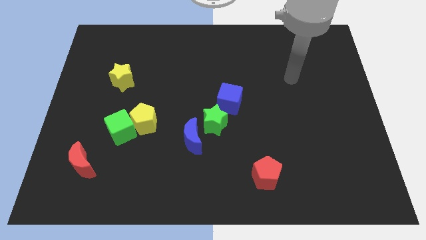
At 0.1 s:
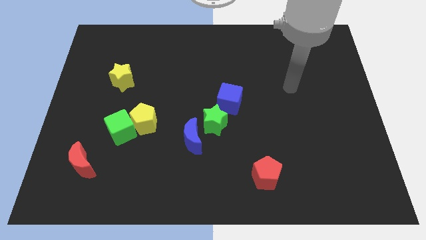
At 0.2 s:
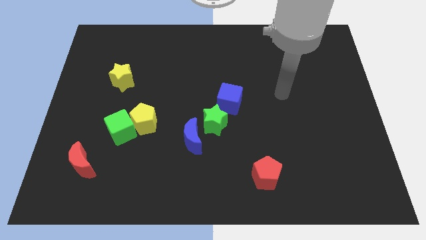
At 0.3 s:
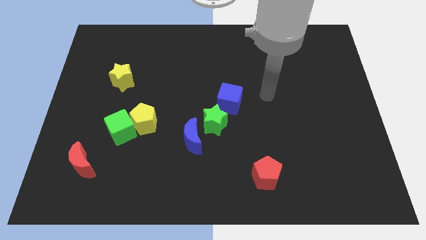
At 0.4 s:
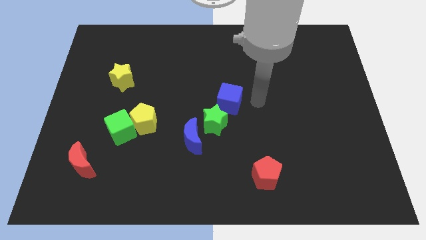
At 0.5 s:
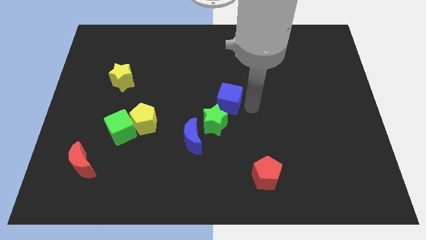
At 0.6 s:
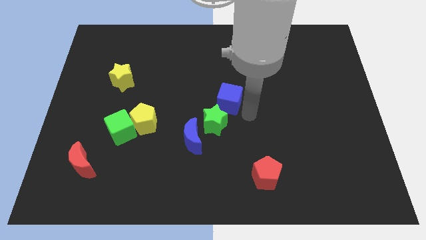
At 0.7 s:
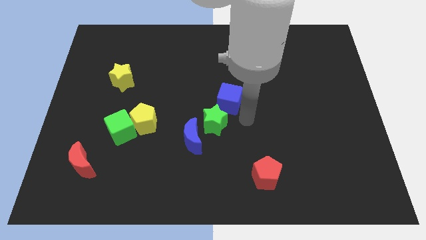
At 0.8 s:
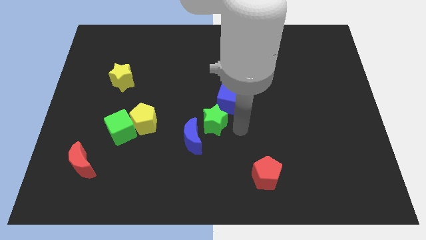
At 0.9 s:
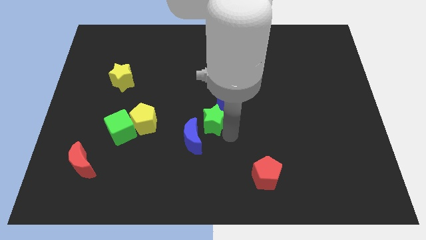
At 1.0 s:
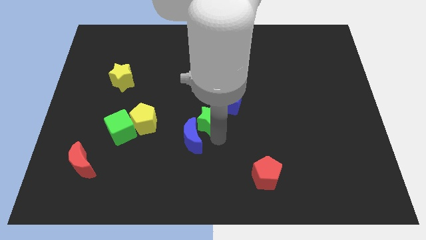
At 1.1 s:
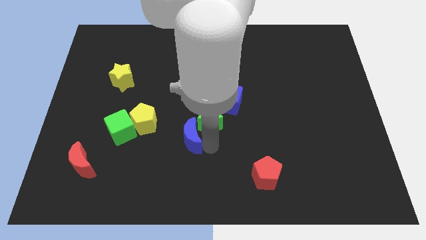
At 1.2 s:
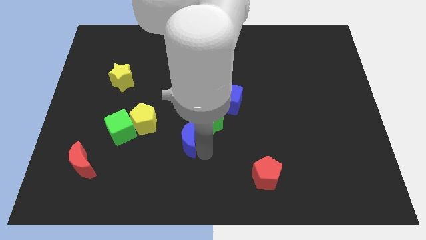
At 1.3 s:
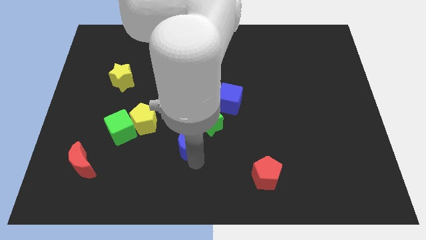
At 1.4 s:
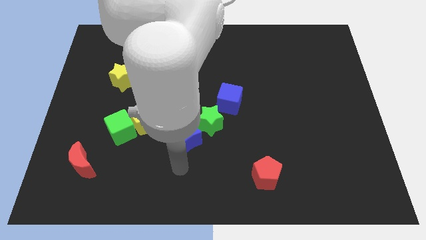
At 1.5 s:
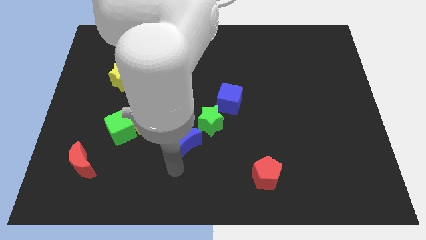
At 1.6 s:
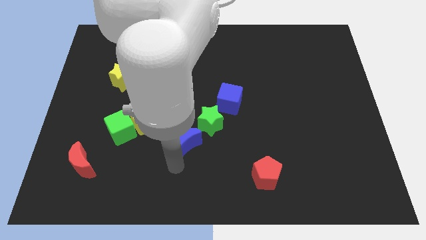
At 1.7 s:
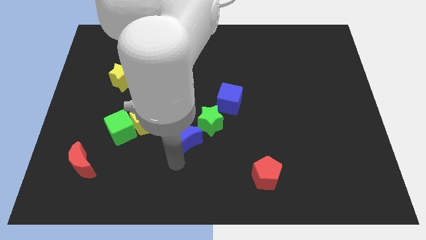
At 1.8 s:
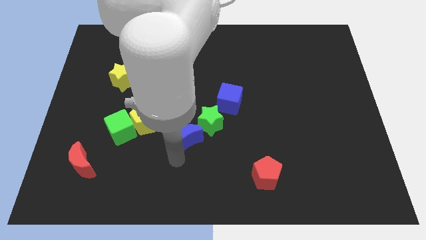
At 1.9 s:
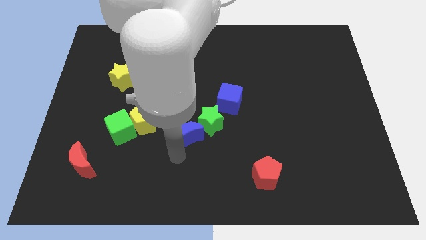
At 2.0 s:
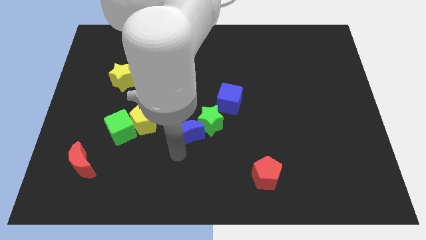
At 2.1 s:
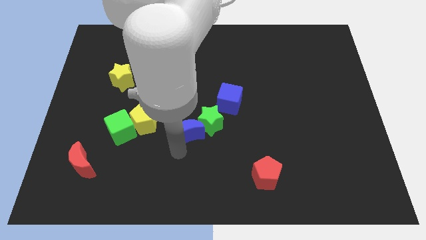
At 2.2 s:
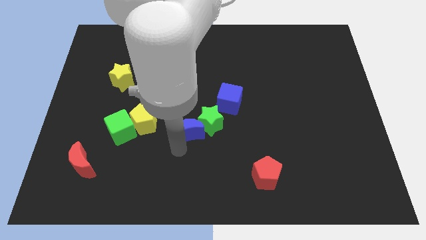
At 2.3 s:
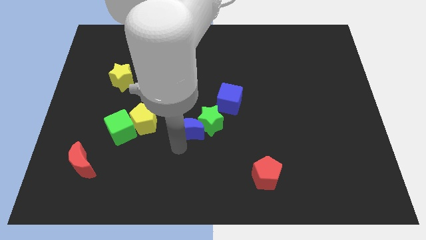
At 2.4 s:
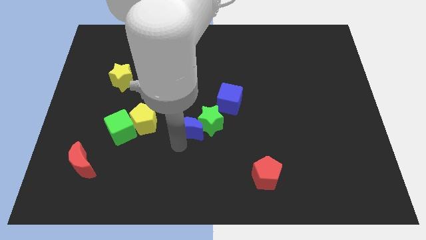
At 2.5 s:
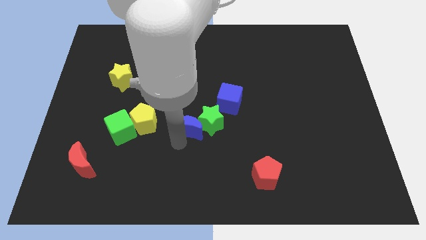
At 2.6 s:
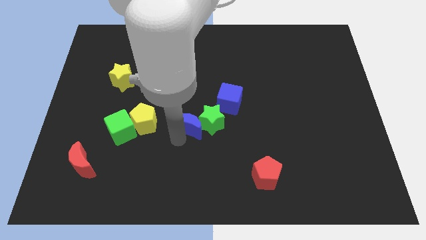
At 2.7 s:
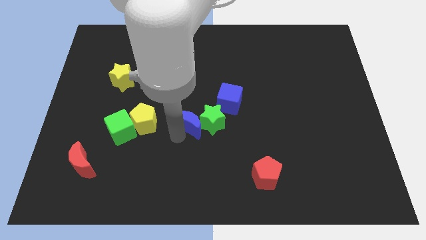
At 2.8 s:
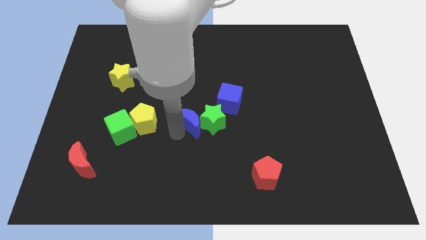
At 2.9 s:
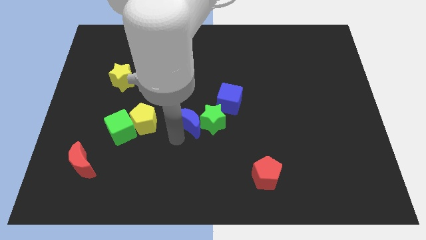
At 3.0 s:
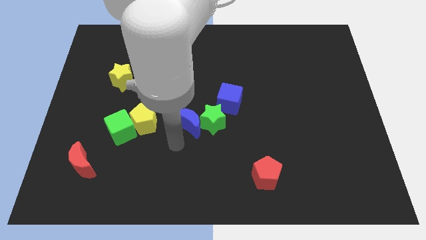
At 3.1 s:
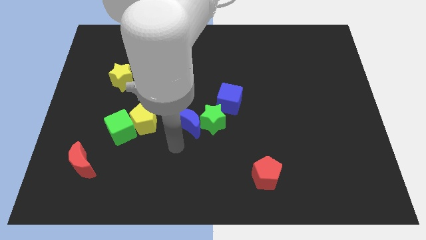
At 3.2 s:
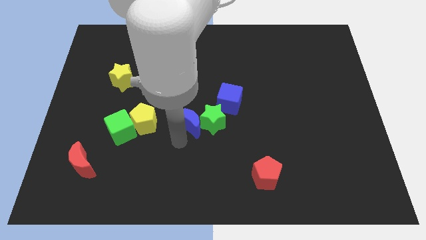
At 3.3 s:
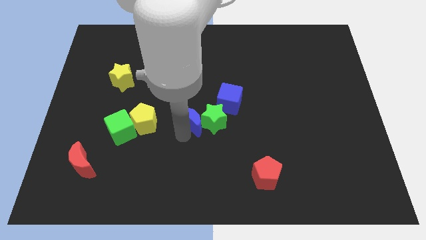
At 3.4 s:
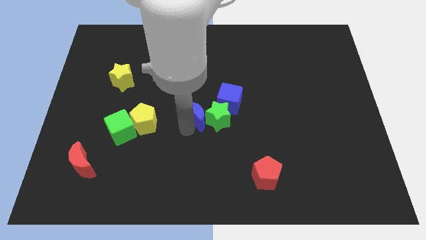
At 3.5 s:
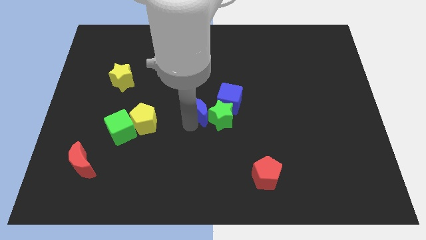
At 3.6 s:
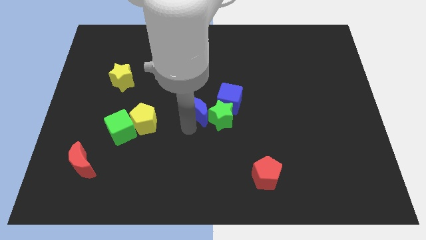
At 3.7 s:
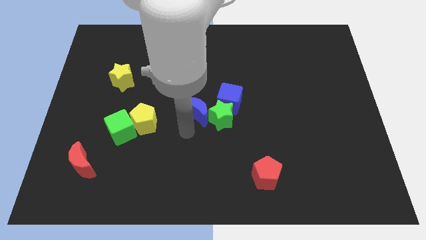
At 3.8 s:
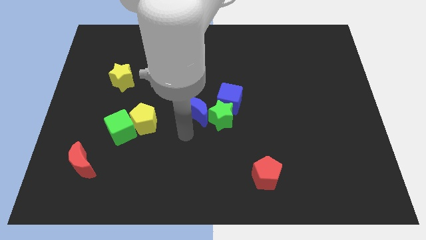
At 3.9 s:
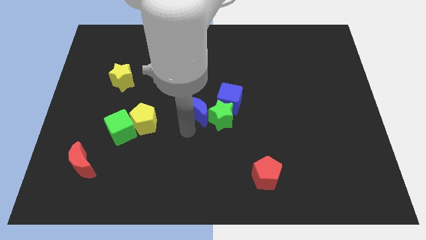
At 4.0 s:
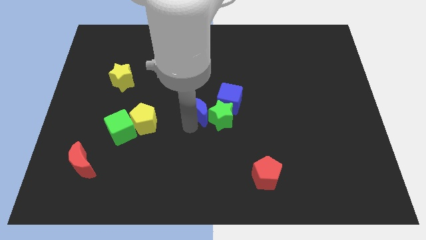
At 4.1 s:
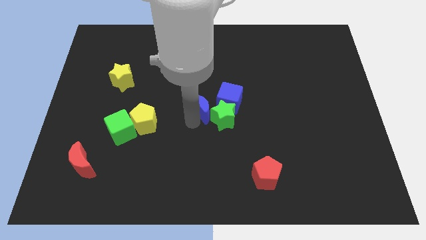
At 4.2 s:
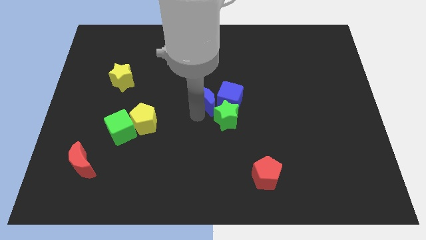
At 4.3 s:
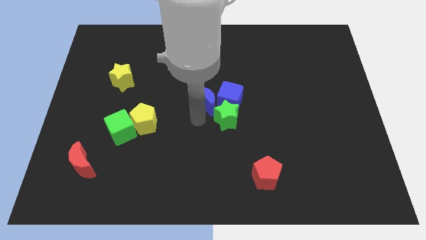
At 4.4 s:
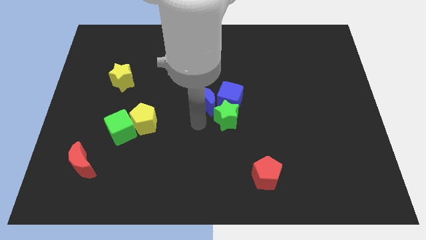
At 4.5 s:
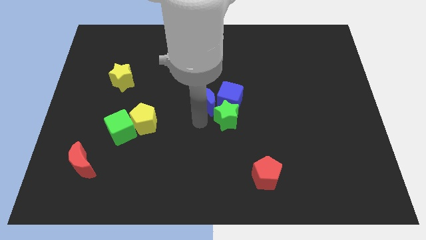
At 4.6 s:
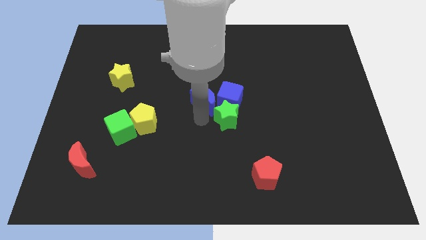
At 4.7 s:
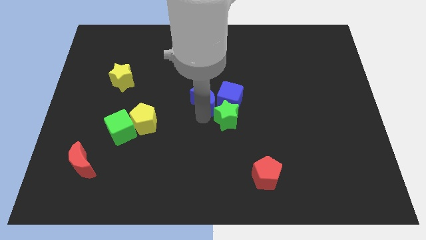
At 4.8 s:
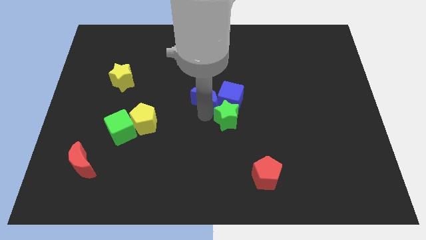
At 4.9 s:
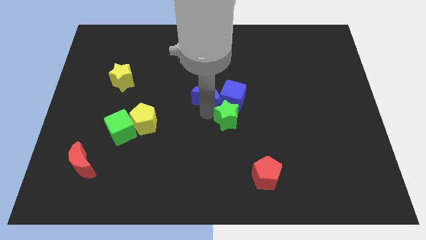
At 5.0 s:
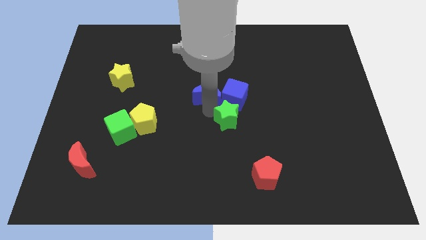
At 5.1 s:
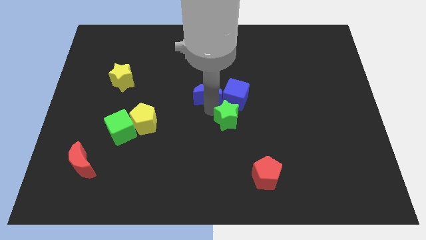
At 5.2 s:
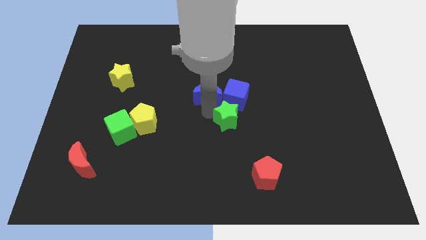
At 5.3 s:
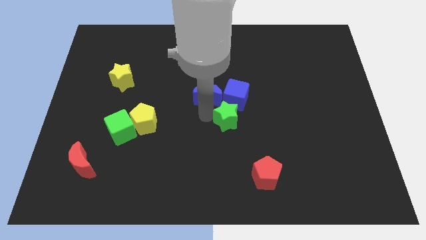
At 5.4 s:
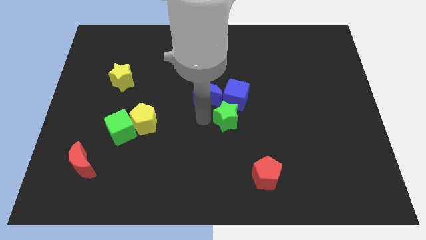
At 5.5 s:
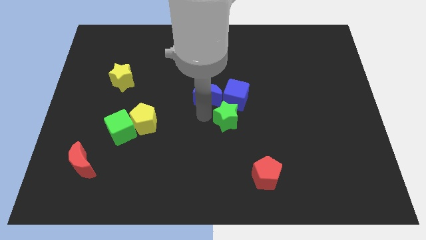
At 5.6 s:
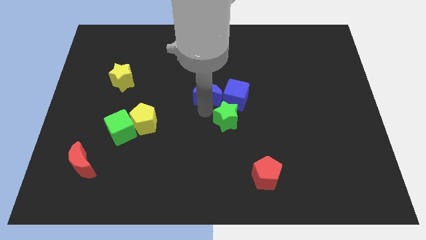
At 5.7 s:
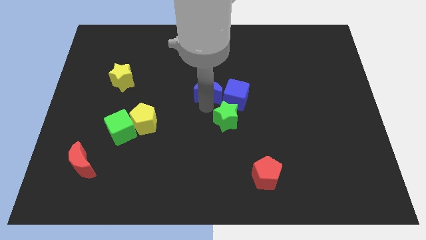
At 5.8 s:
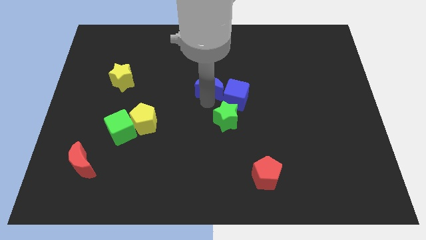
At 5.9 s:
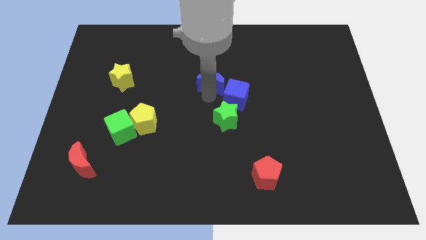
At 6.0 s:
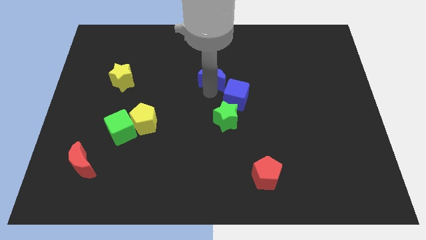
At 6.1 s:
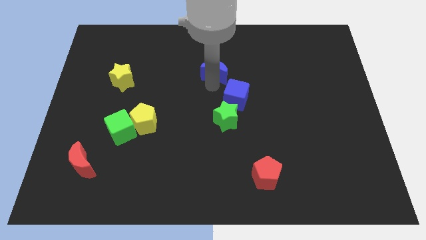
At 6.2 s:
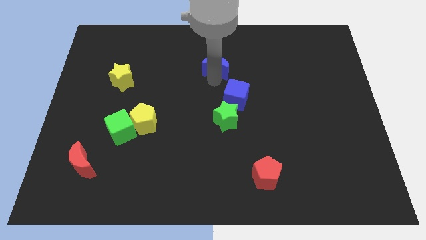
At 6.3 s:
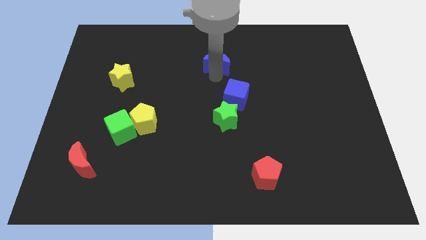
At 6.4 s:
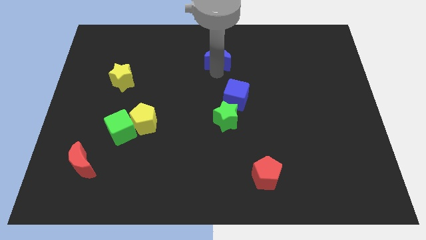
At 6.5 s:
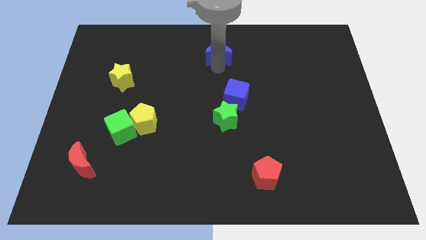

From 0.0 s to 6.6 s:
push the blue moon to the top side

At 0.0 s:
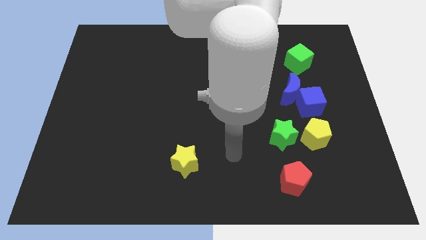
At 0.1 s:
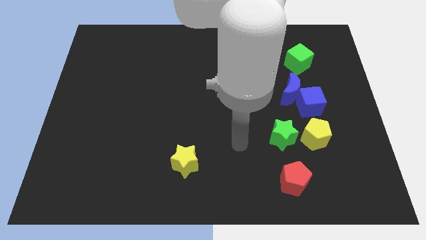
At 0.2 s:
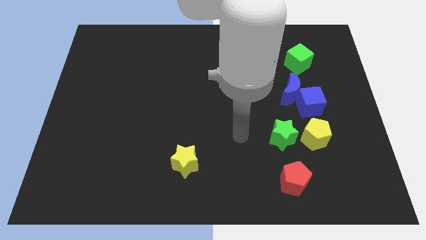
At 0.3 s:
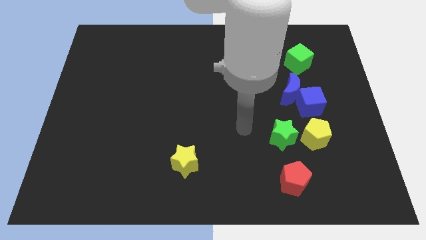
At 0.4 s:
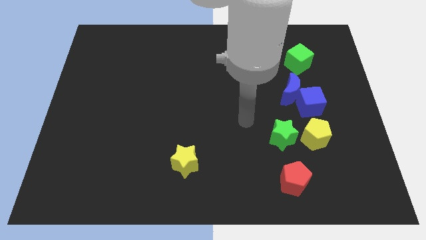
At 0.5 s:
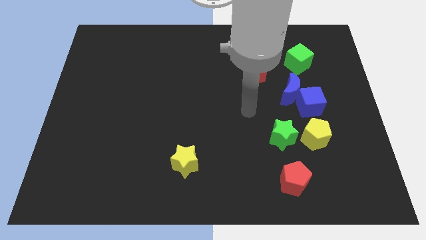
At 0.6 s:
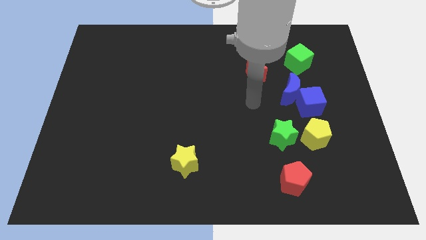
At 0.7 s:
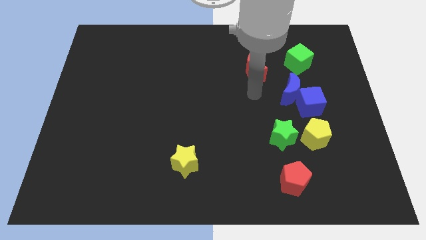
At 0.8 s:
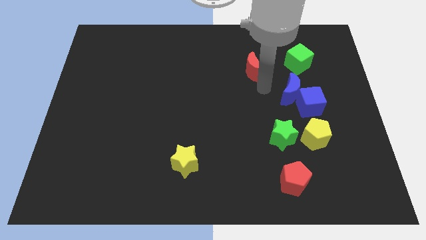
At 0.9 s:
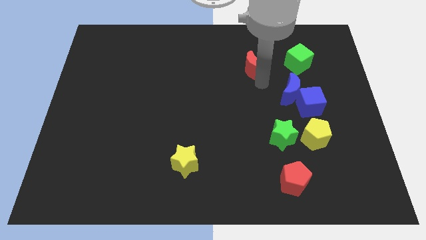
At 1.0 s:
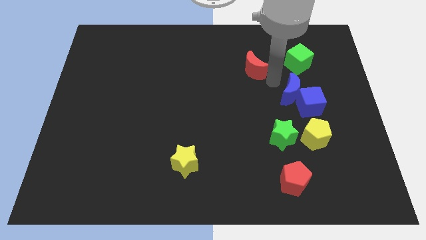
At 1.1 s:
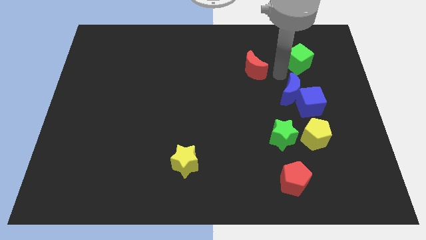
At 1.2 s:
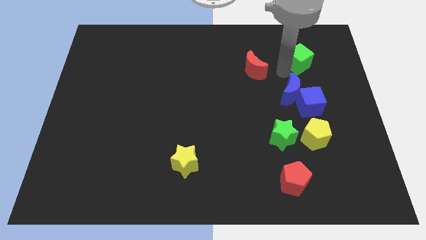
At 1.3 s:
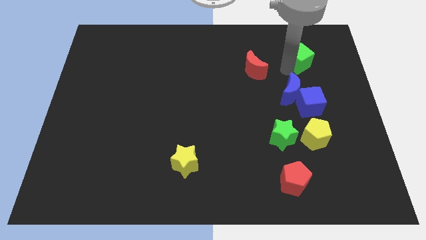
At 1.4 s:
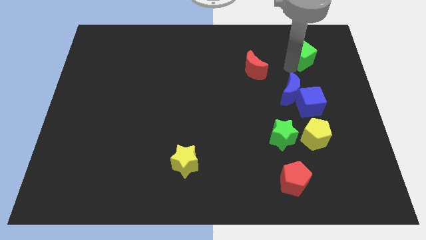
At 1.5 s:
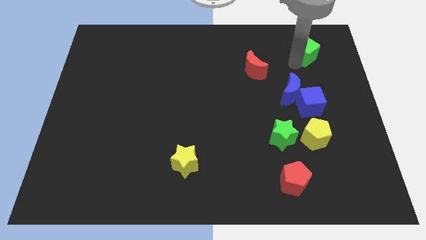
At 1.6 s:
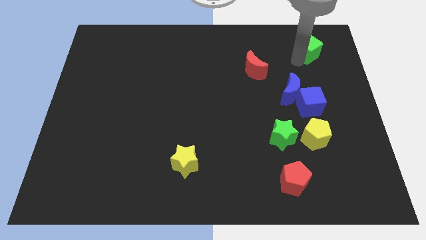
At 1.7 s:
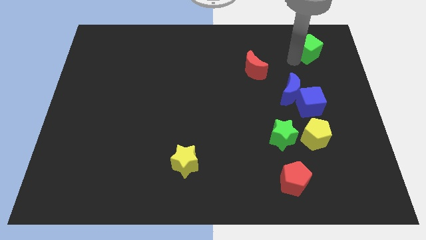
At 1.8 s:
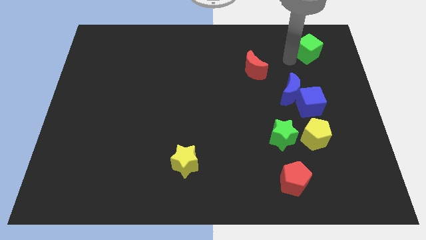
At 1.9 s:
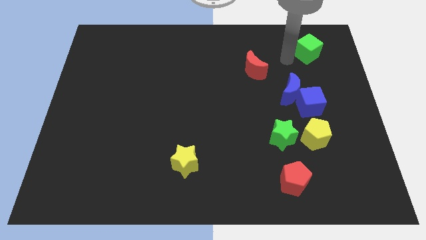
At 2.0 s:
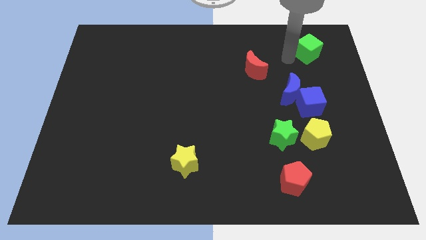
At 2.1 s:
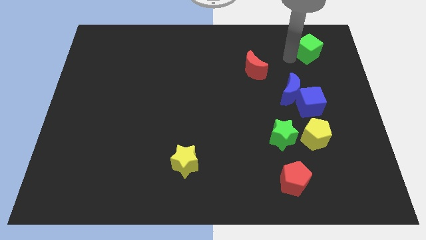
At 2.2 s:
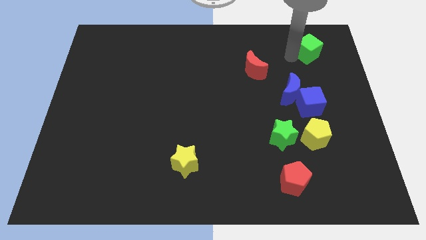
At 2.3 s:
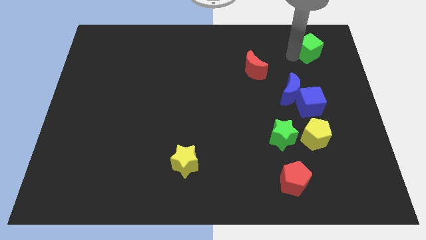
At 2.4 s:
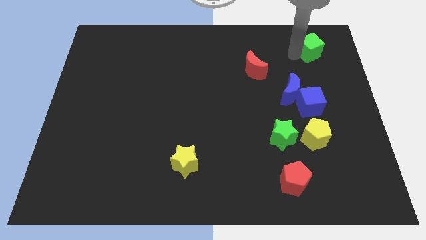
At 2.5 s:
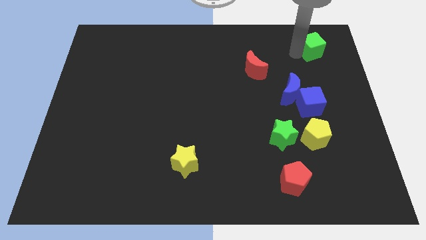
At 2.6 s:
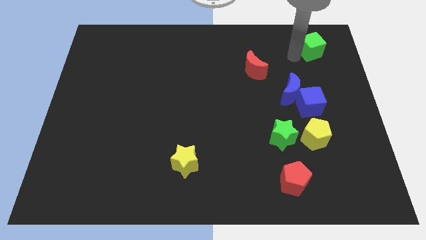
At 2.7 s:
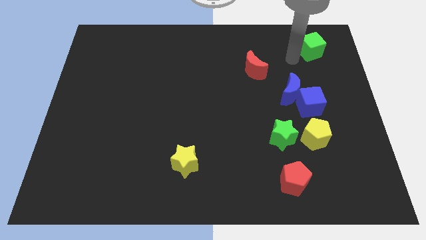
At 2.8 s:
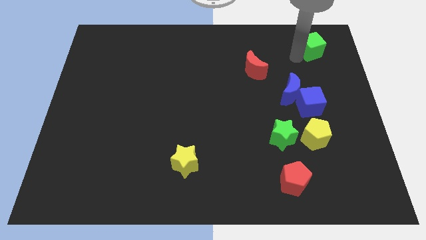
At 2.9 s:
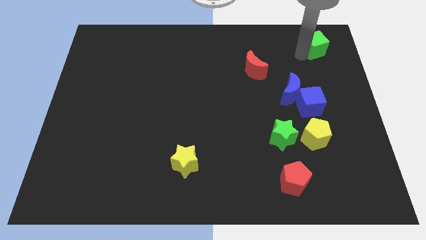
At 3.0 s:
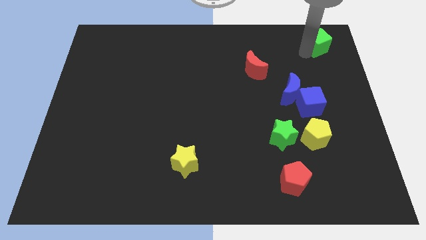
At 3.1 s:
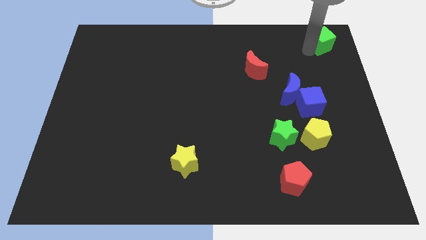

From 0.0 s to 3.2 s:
slide the green cube to the top right of the board
